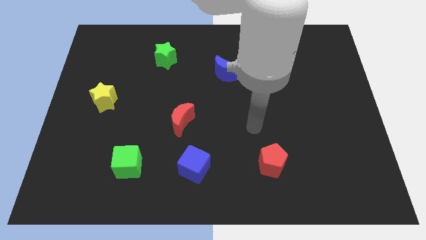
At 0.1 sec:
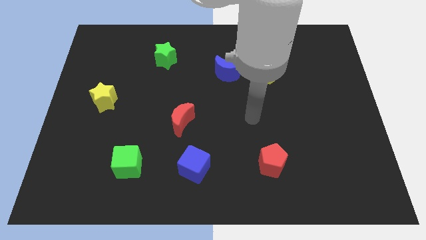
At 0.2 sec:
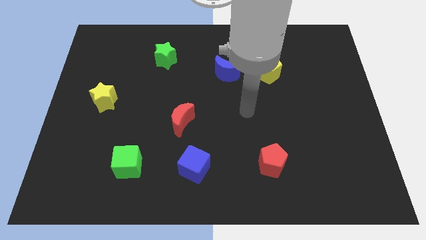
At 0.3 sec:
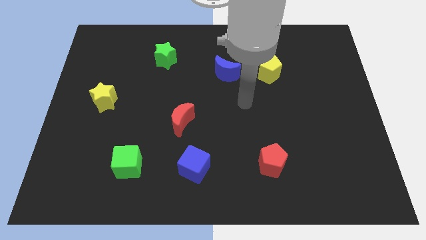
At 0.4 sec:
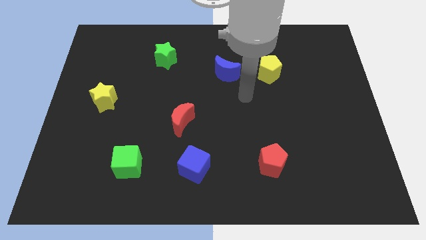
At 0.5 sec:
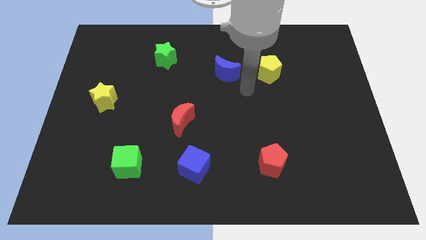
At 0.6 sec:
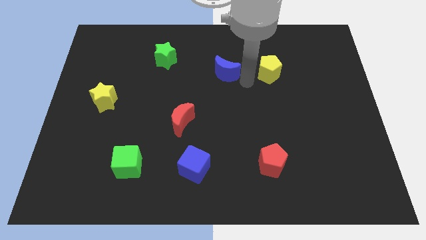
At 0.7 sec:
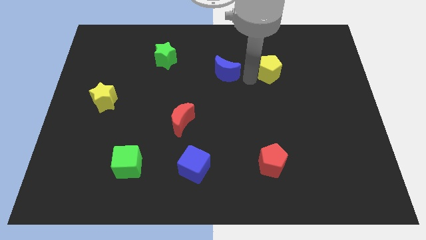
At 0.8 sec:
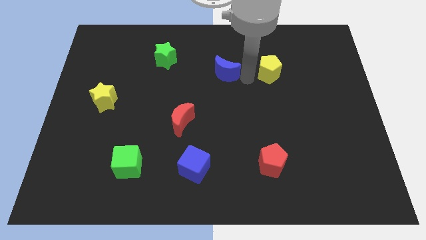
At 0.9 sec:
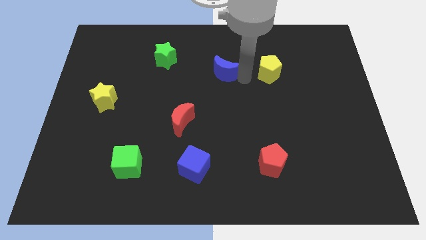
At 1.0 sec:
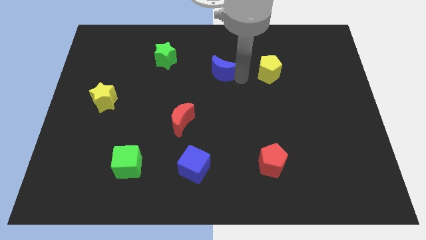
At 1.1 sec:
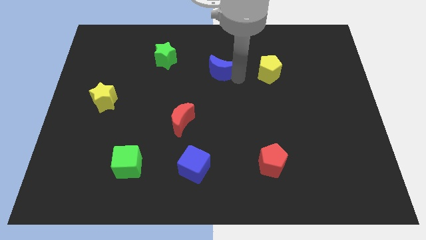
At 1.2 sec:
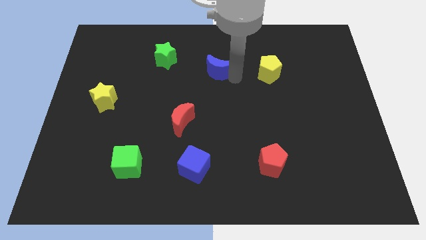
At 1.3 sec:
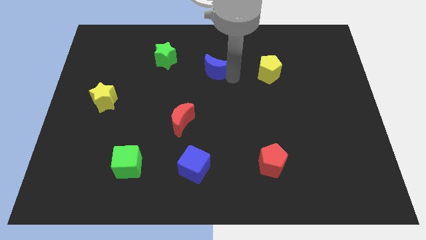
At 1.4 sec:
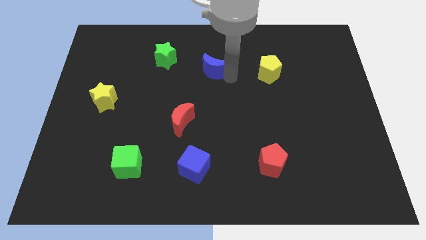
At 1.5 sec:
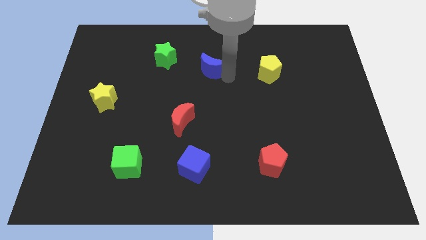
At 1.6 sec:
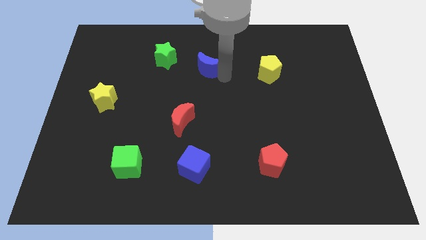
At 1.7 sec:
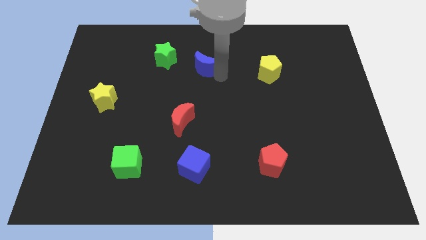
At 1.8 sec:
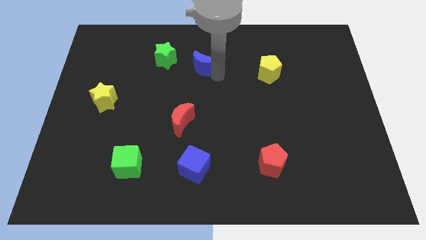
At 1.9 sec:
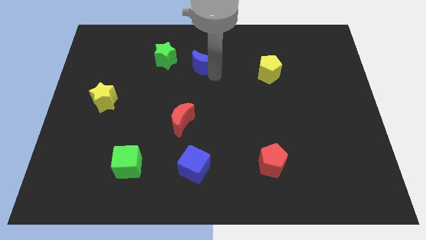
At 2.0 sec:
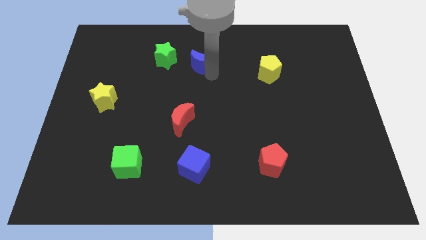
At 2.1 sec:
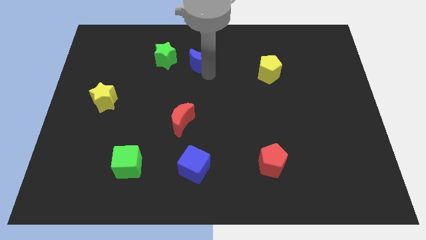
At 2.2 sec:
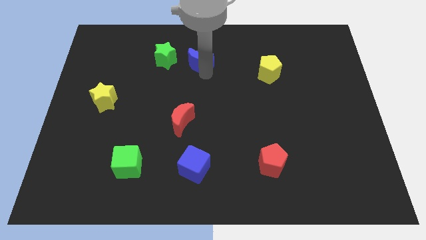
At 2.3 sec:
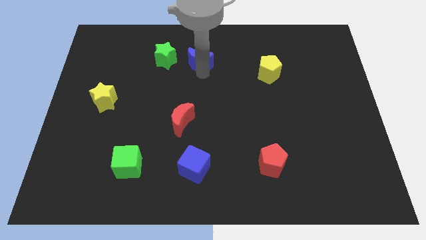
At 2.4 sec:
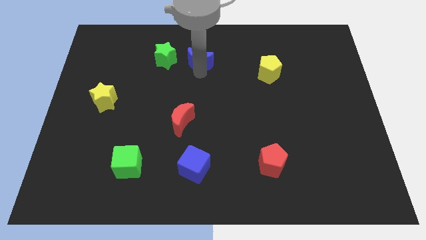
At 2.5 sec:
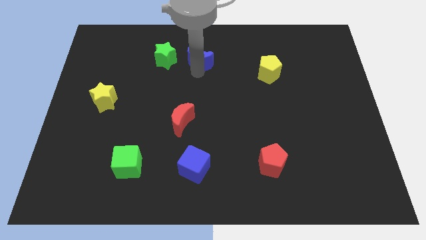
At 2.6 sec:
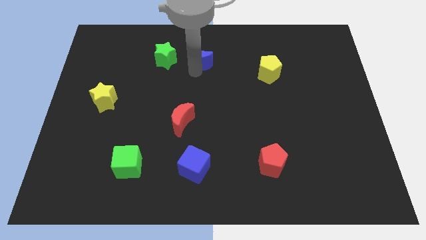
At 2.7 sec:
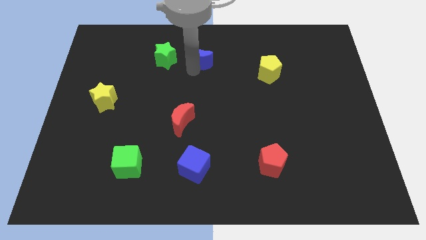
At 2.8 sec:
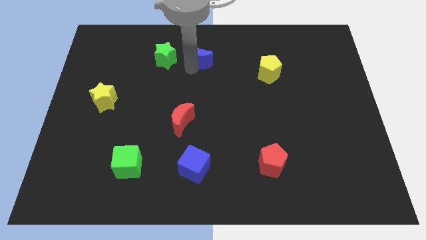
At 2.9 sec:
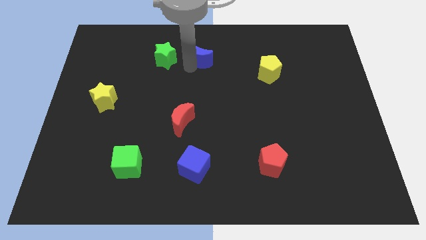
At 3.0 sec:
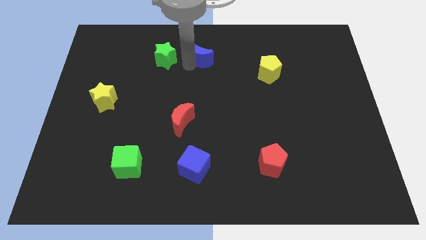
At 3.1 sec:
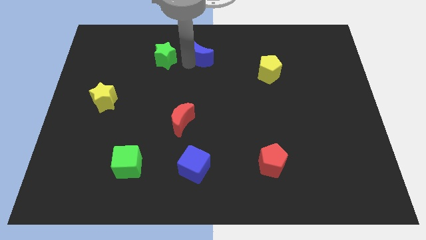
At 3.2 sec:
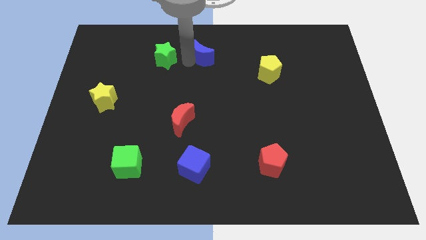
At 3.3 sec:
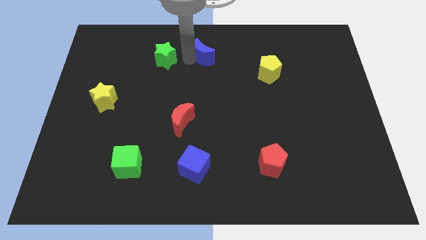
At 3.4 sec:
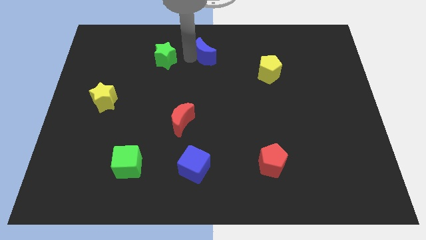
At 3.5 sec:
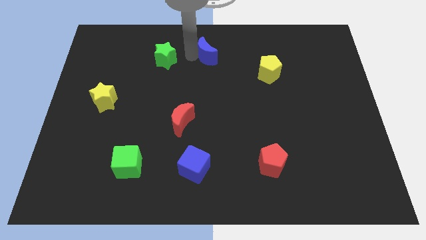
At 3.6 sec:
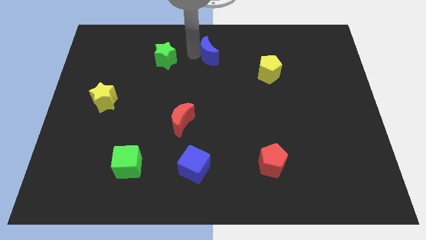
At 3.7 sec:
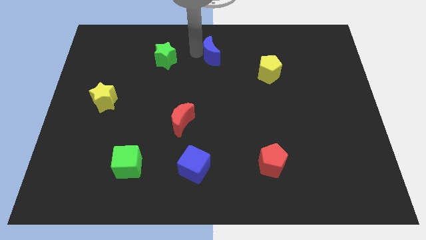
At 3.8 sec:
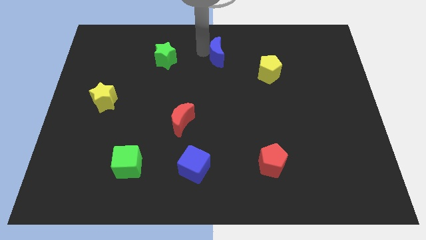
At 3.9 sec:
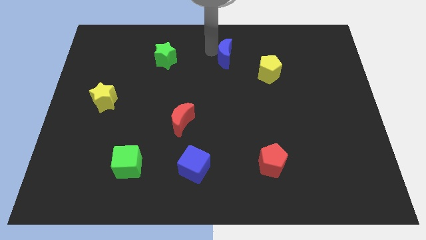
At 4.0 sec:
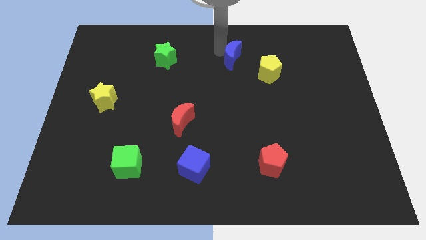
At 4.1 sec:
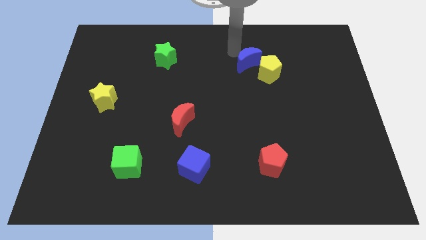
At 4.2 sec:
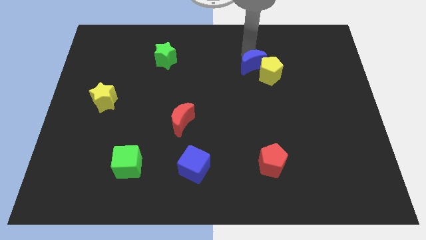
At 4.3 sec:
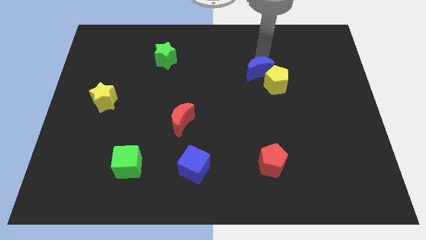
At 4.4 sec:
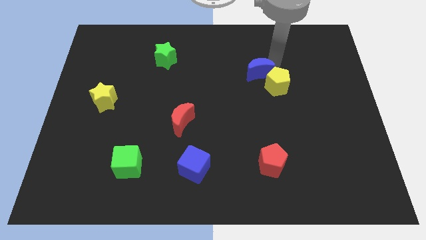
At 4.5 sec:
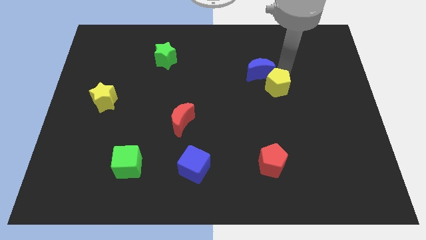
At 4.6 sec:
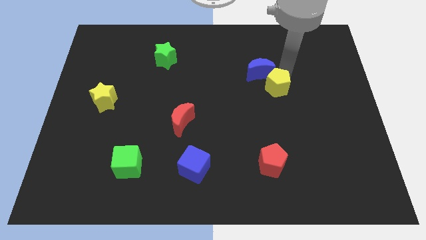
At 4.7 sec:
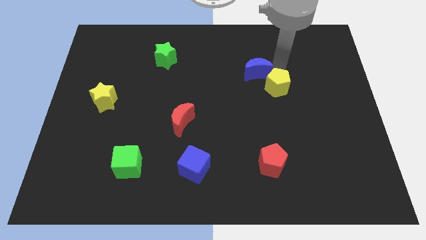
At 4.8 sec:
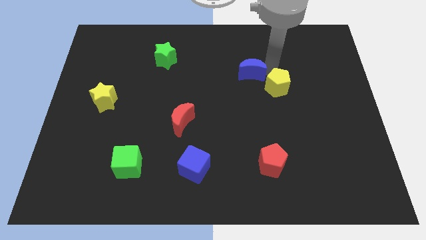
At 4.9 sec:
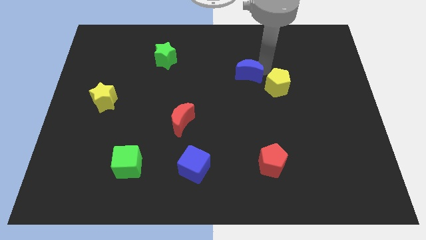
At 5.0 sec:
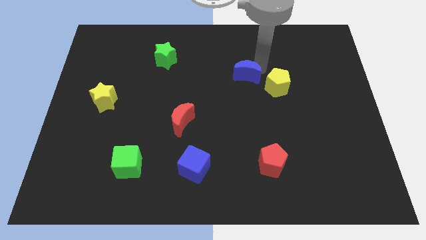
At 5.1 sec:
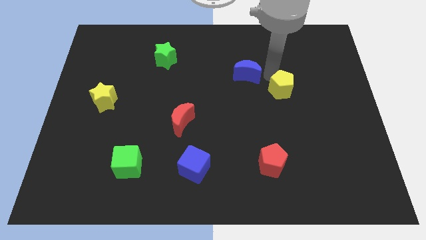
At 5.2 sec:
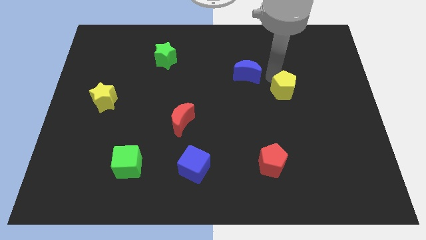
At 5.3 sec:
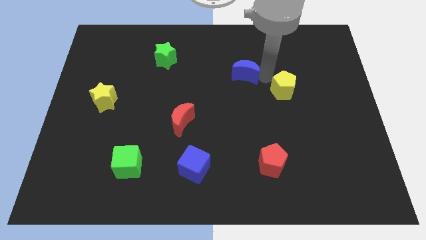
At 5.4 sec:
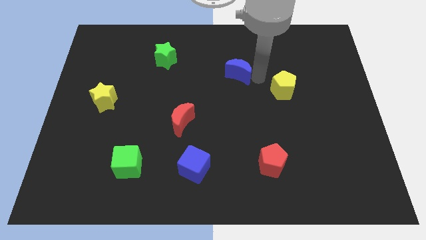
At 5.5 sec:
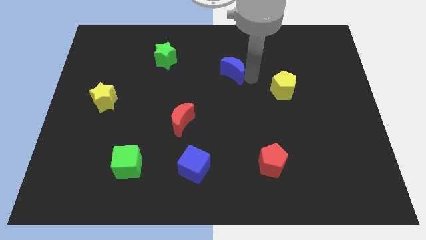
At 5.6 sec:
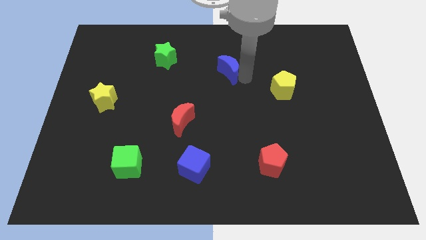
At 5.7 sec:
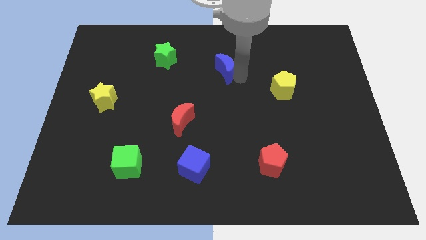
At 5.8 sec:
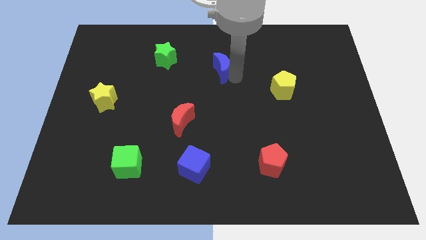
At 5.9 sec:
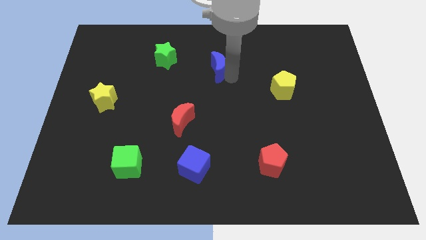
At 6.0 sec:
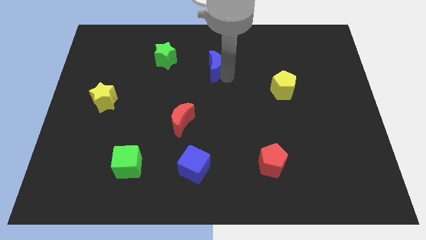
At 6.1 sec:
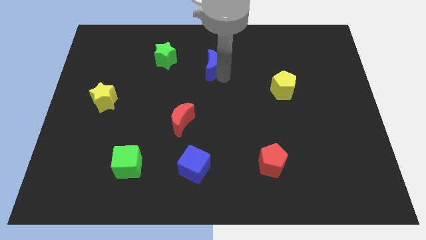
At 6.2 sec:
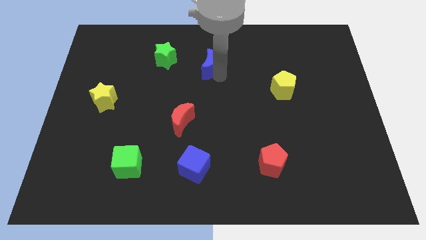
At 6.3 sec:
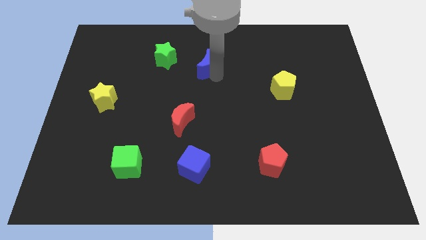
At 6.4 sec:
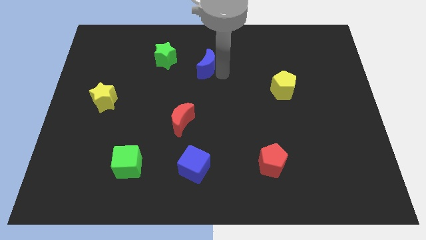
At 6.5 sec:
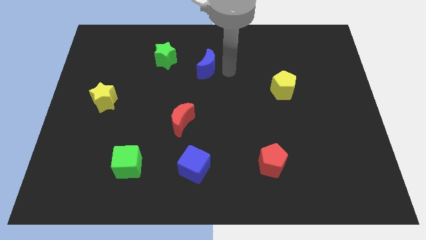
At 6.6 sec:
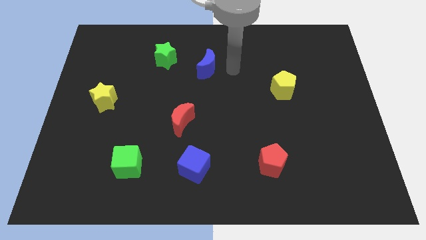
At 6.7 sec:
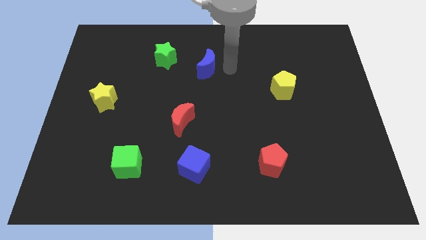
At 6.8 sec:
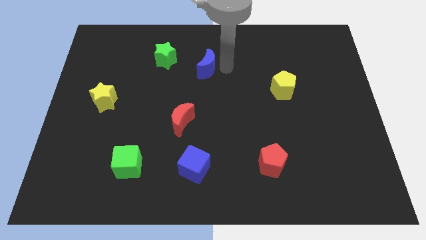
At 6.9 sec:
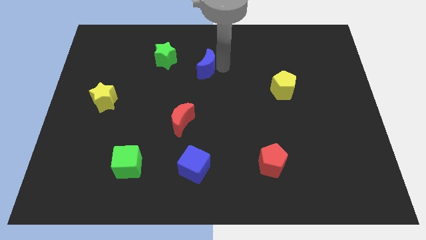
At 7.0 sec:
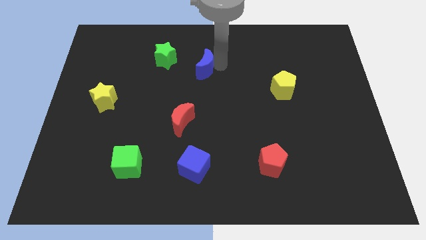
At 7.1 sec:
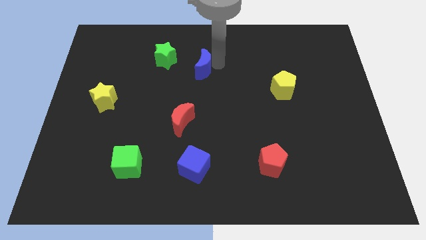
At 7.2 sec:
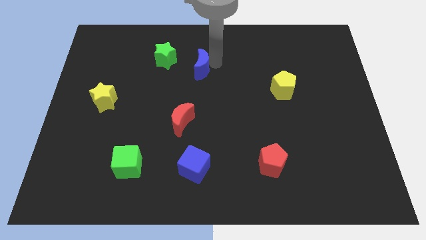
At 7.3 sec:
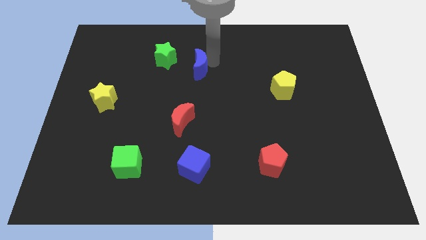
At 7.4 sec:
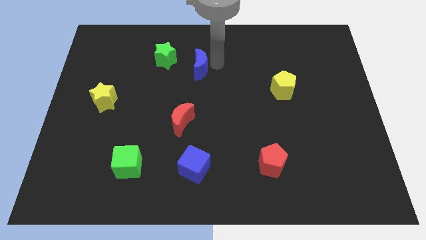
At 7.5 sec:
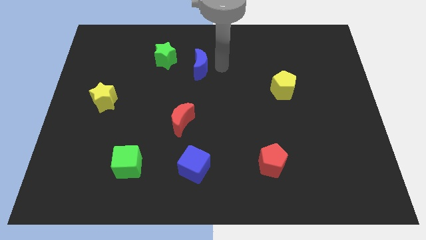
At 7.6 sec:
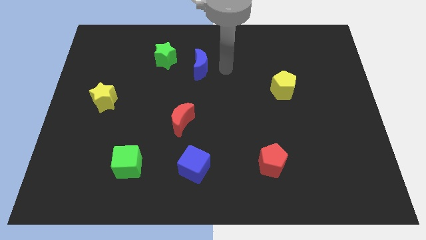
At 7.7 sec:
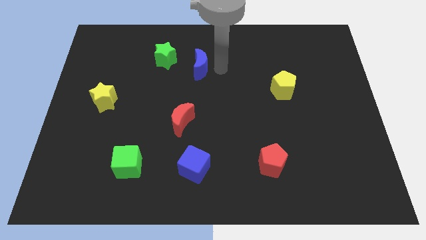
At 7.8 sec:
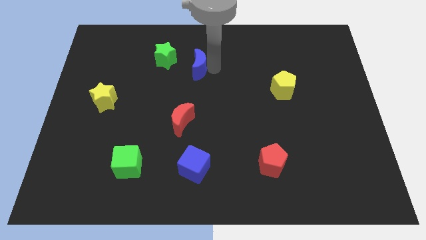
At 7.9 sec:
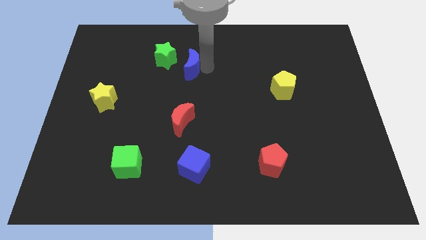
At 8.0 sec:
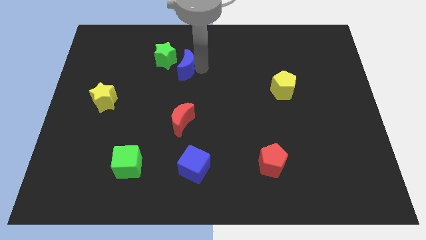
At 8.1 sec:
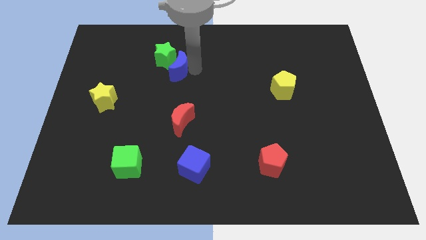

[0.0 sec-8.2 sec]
move the blue moon to the green star
